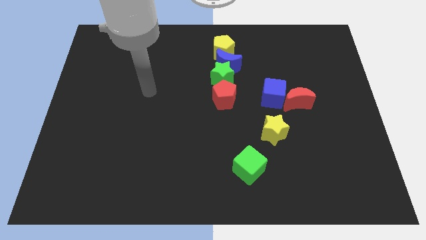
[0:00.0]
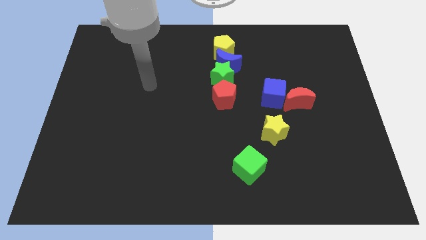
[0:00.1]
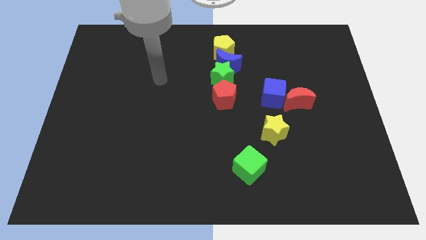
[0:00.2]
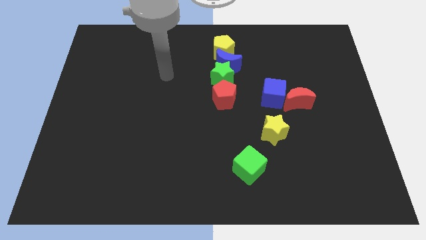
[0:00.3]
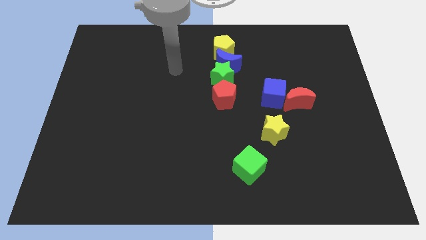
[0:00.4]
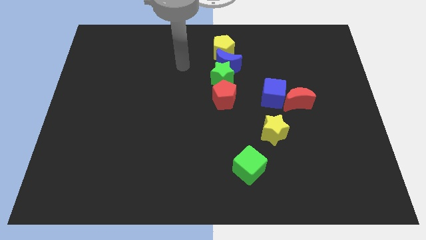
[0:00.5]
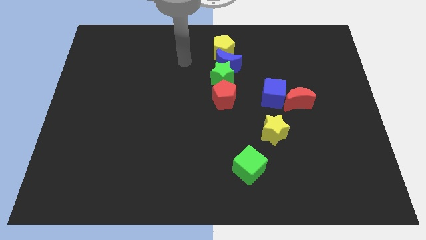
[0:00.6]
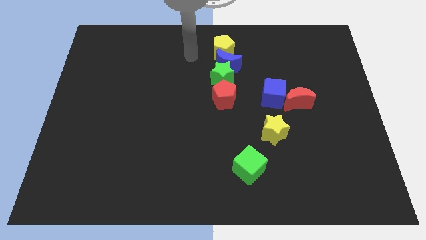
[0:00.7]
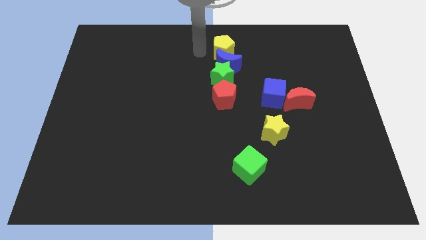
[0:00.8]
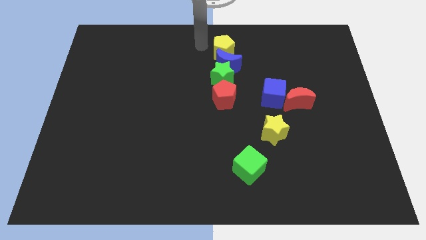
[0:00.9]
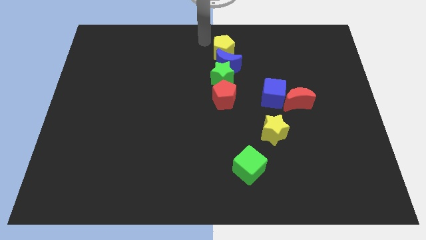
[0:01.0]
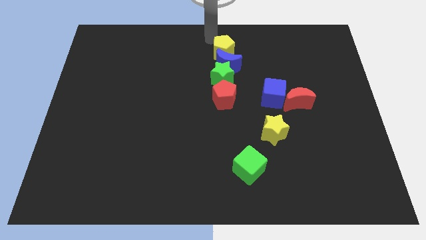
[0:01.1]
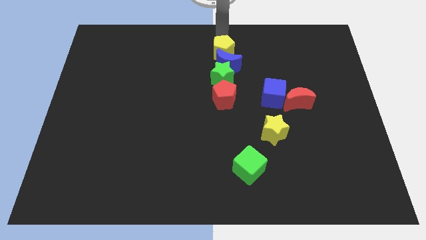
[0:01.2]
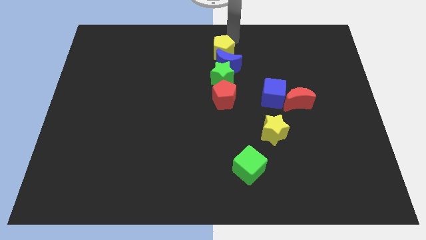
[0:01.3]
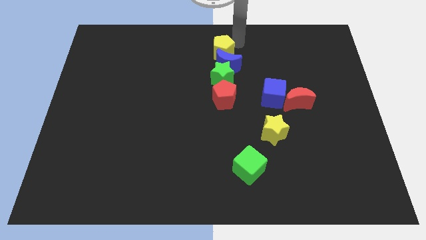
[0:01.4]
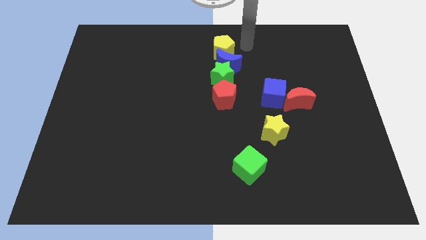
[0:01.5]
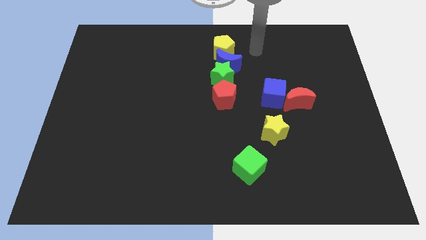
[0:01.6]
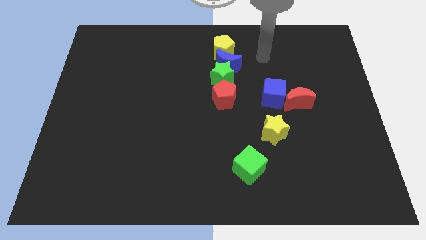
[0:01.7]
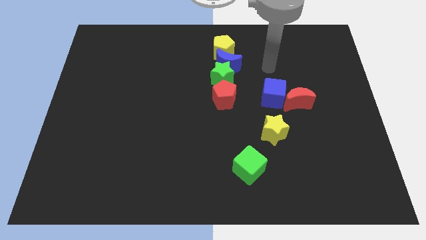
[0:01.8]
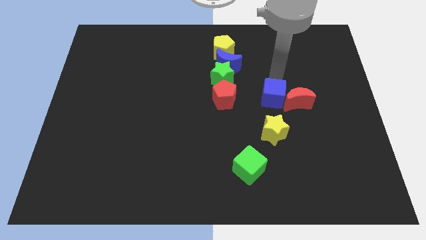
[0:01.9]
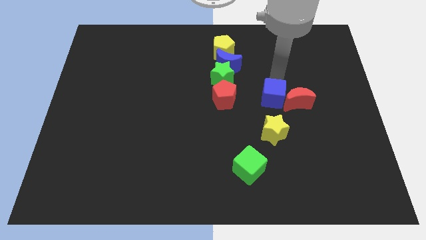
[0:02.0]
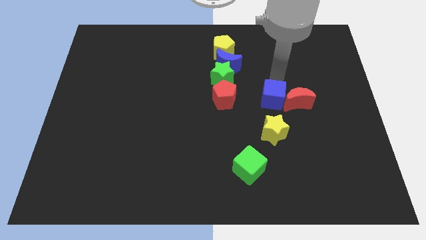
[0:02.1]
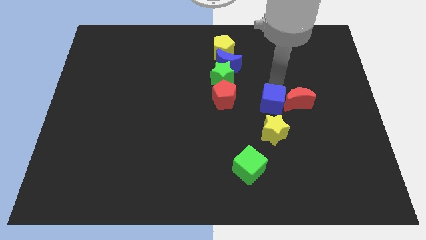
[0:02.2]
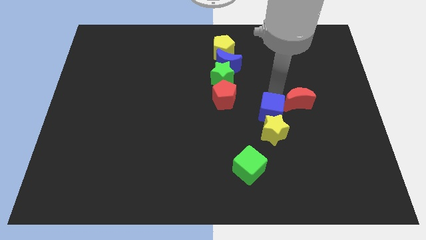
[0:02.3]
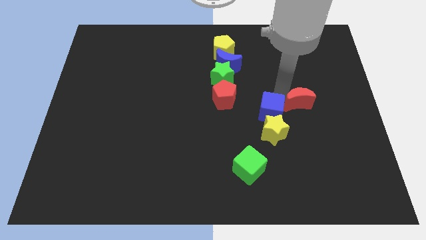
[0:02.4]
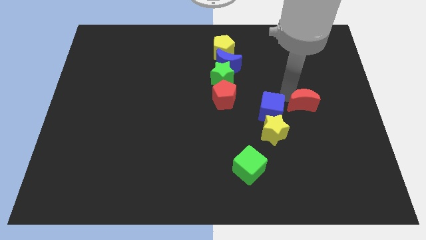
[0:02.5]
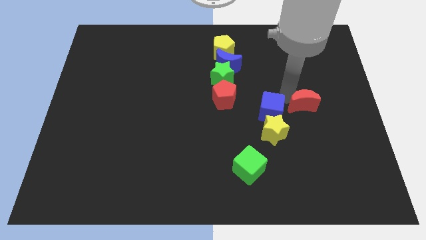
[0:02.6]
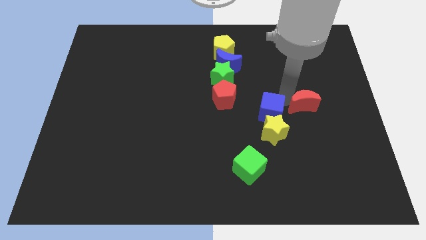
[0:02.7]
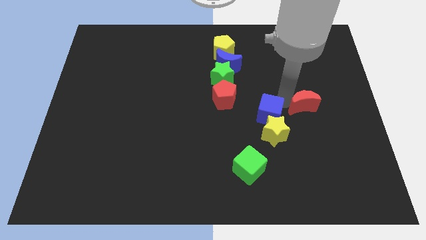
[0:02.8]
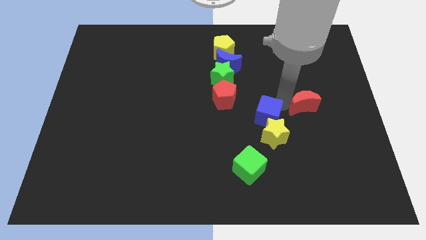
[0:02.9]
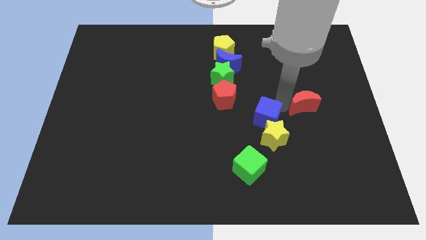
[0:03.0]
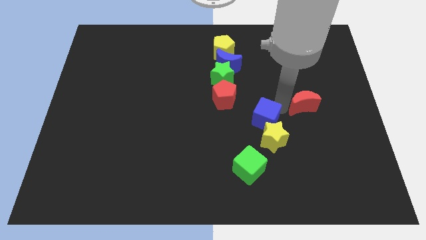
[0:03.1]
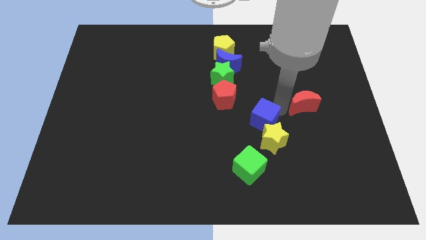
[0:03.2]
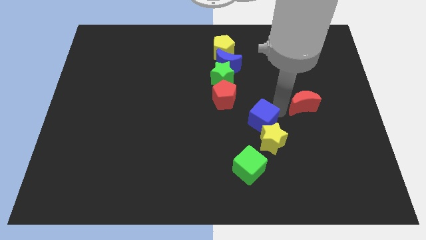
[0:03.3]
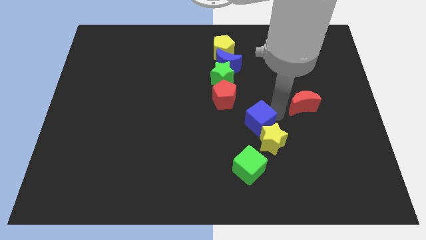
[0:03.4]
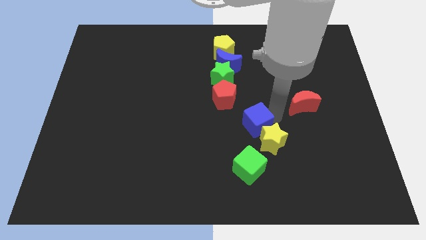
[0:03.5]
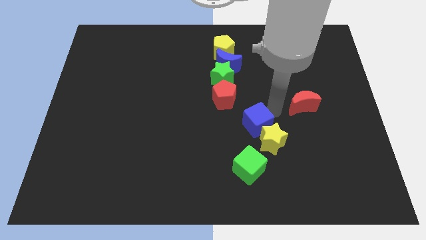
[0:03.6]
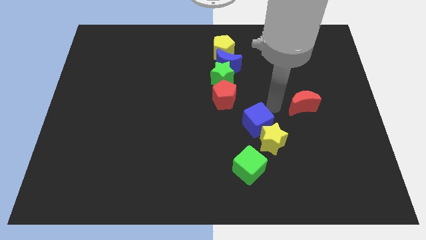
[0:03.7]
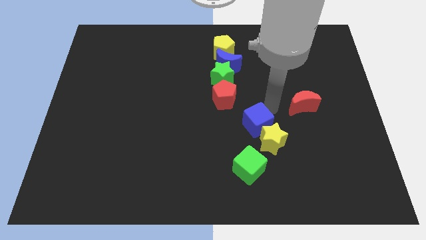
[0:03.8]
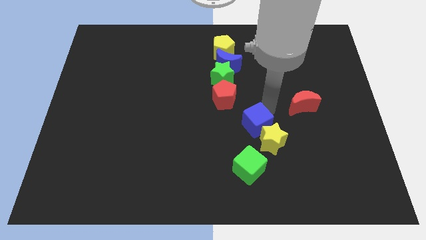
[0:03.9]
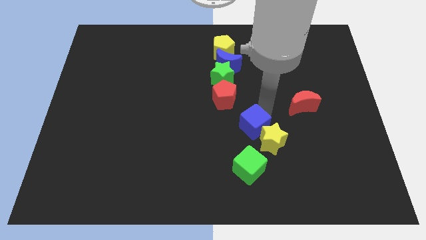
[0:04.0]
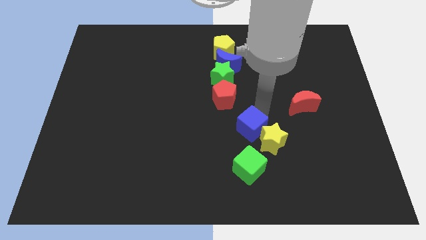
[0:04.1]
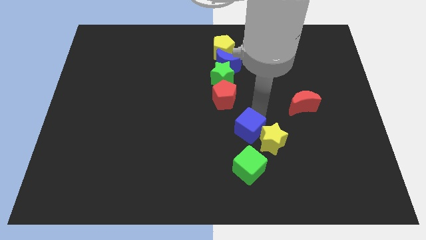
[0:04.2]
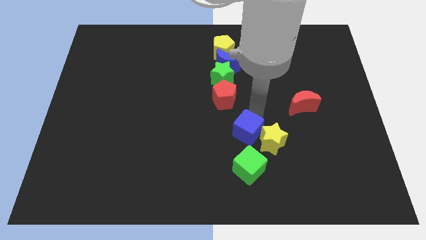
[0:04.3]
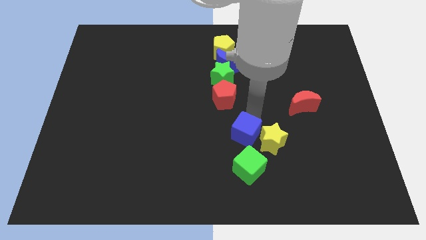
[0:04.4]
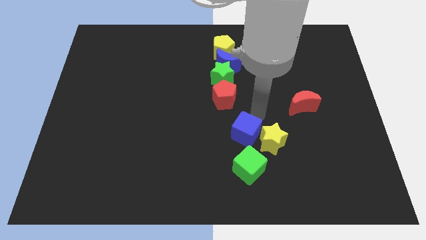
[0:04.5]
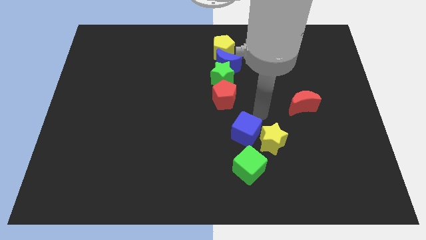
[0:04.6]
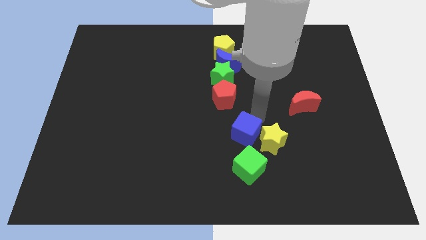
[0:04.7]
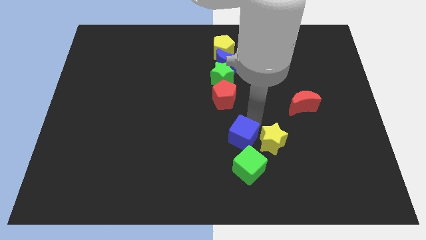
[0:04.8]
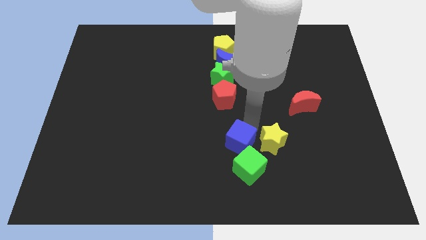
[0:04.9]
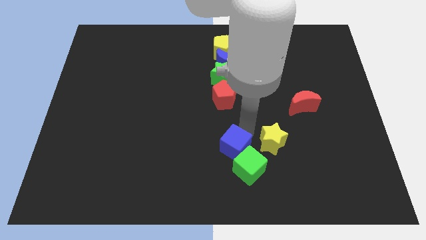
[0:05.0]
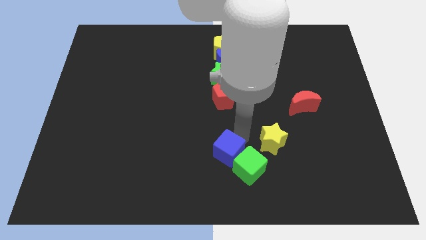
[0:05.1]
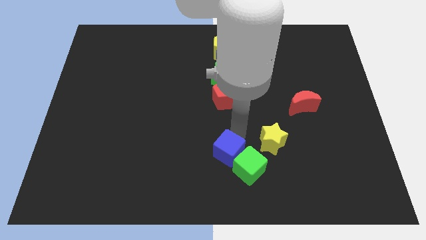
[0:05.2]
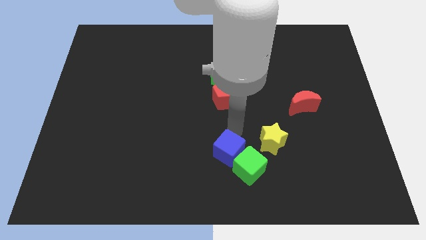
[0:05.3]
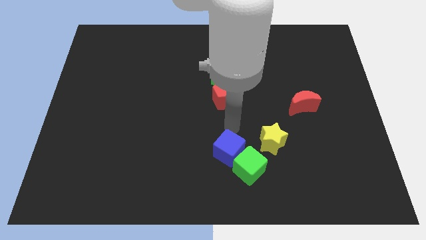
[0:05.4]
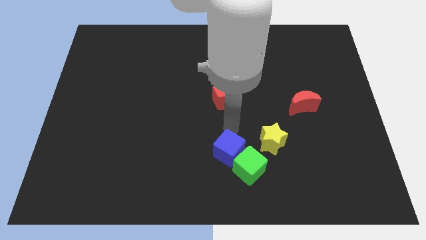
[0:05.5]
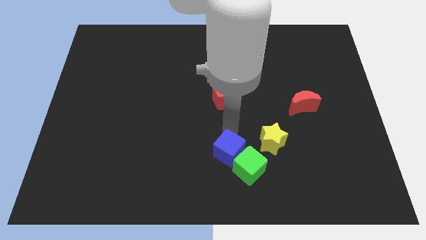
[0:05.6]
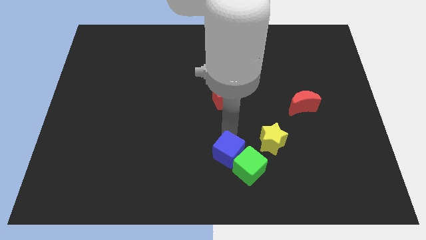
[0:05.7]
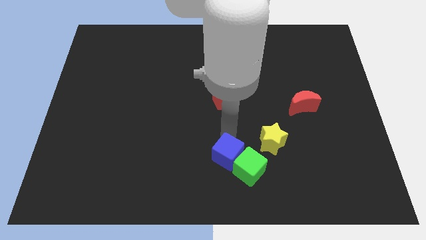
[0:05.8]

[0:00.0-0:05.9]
move the blue cube to the bottom side
